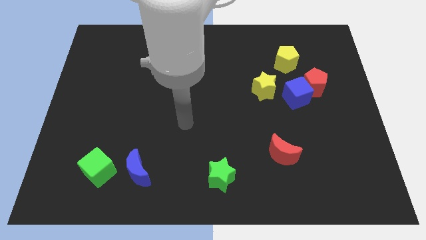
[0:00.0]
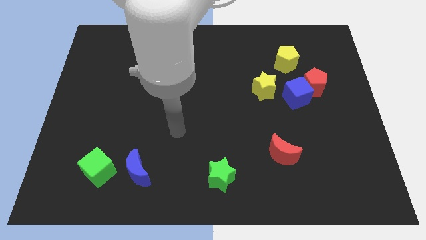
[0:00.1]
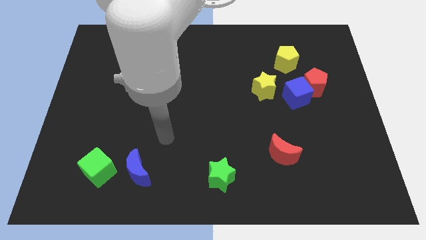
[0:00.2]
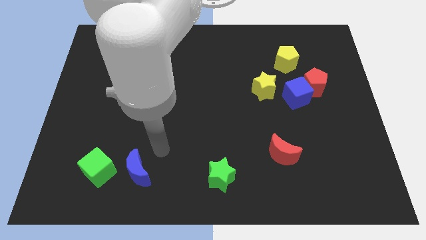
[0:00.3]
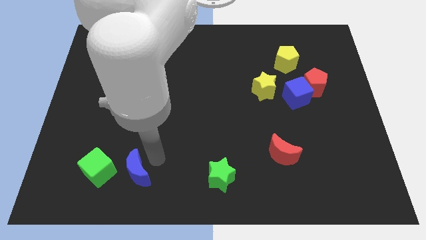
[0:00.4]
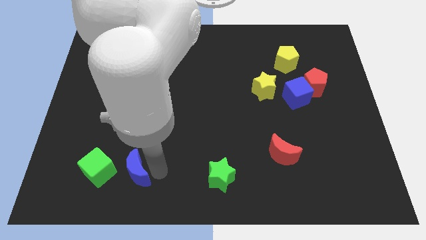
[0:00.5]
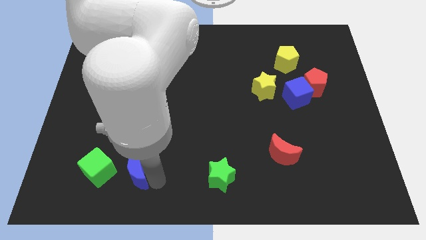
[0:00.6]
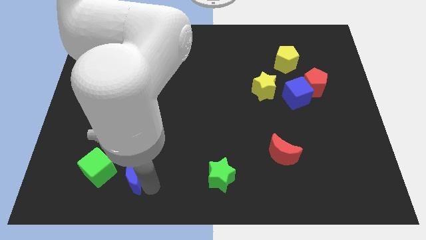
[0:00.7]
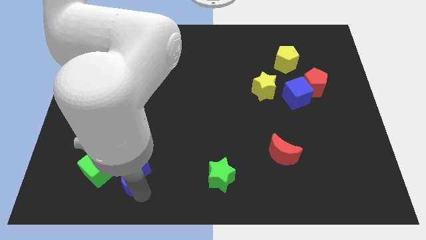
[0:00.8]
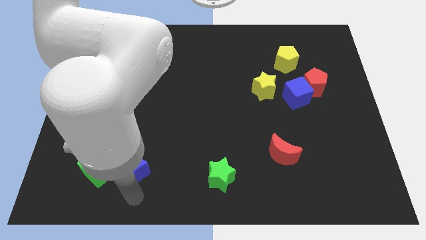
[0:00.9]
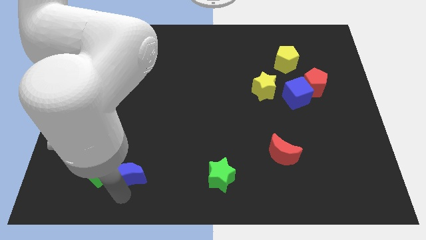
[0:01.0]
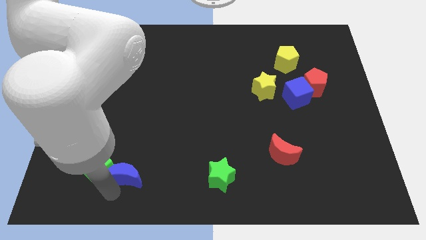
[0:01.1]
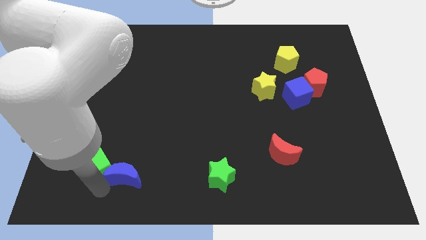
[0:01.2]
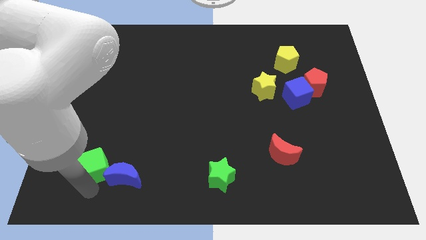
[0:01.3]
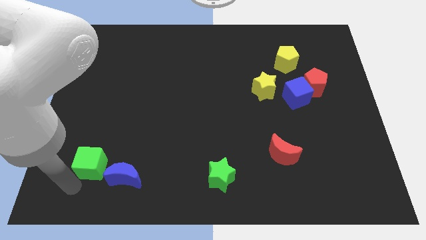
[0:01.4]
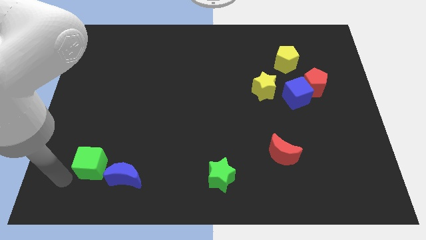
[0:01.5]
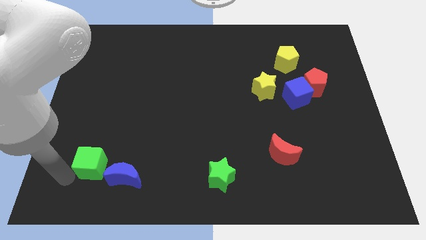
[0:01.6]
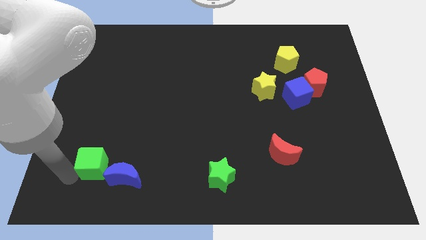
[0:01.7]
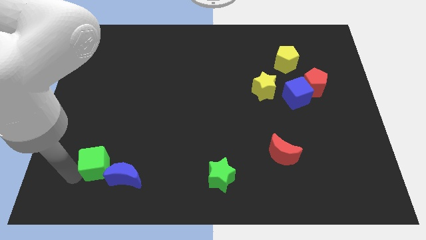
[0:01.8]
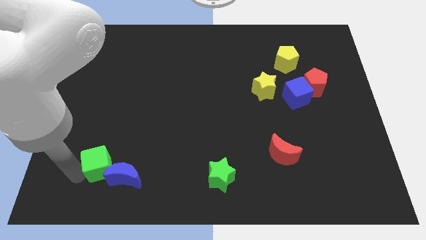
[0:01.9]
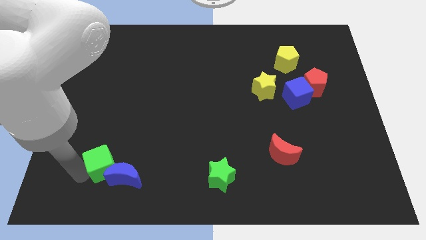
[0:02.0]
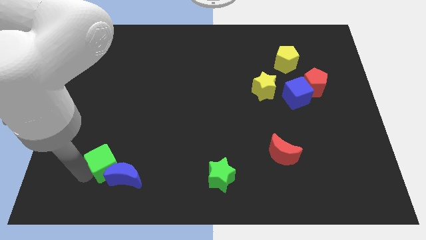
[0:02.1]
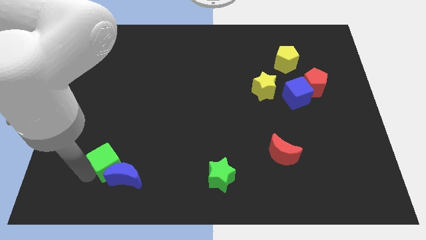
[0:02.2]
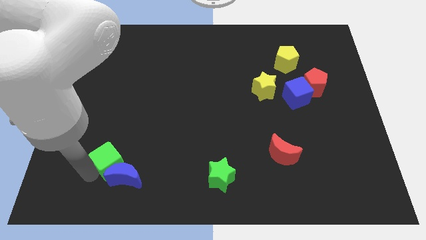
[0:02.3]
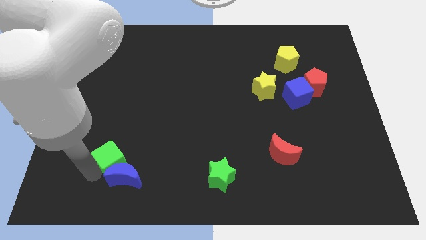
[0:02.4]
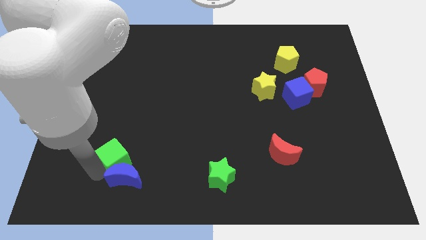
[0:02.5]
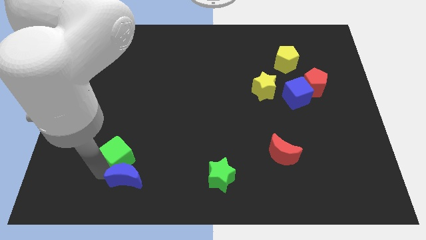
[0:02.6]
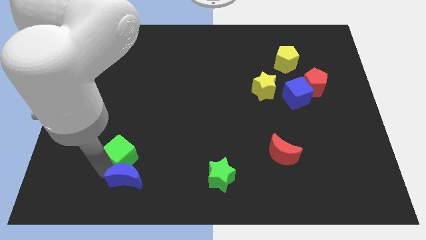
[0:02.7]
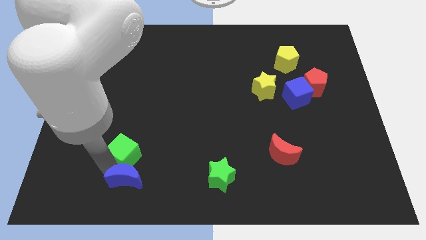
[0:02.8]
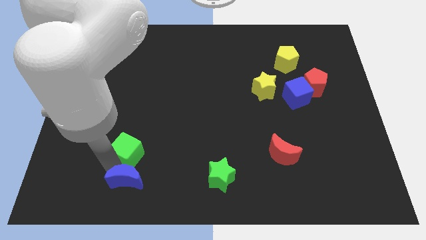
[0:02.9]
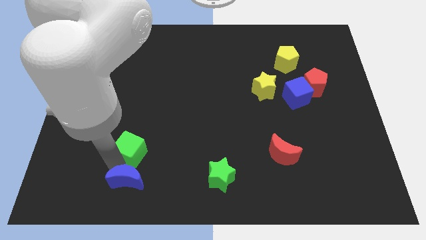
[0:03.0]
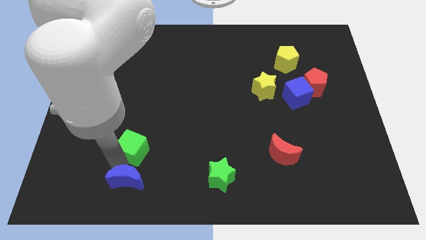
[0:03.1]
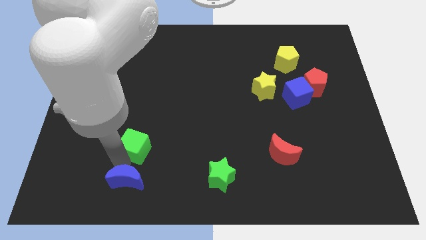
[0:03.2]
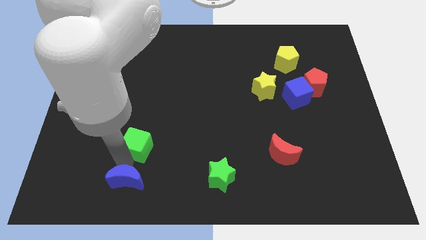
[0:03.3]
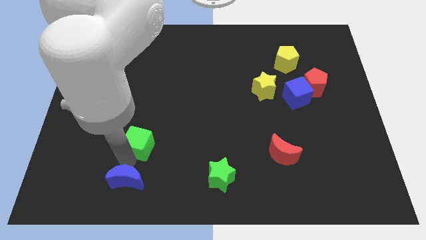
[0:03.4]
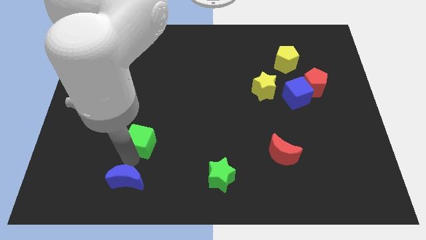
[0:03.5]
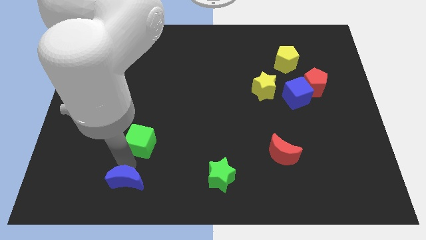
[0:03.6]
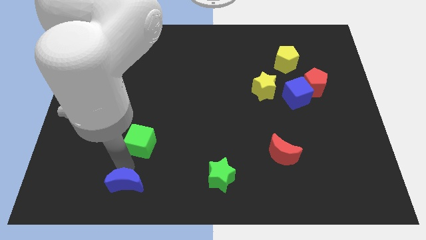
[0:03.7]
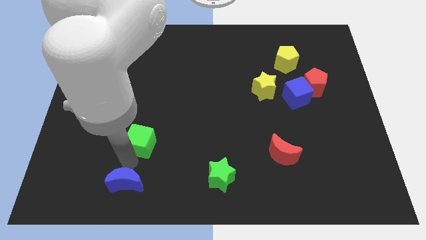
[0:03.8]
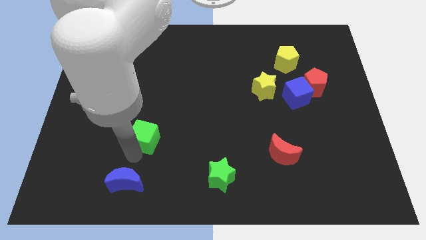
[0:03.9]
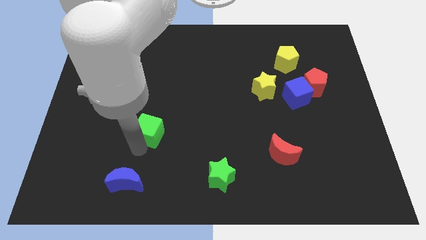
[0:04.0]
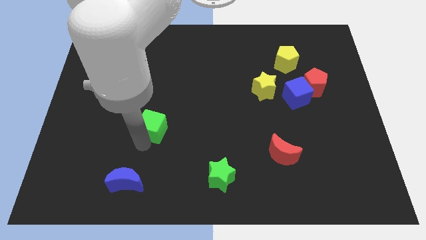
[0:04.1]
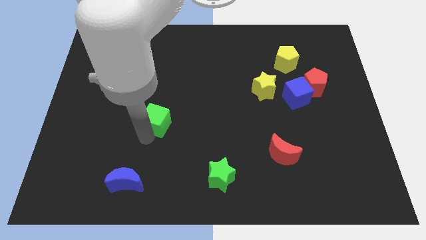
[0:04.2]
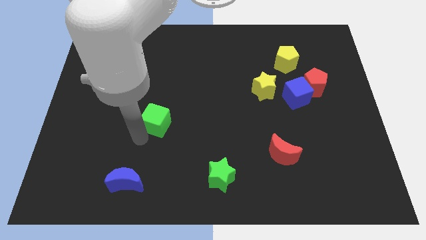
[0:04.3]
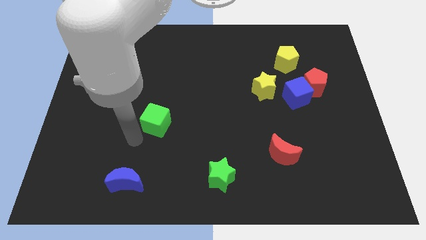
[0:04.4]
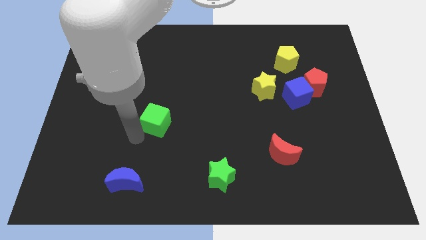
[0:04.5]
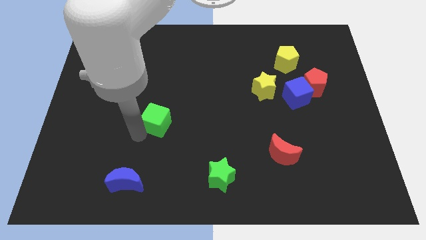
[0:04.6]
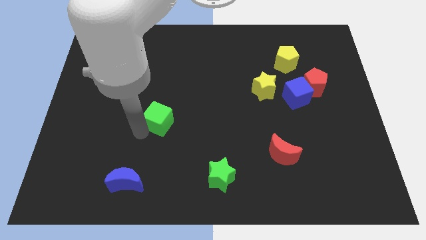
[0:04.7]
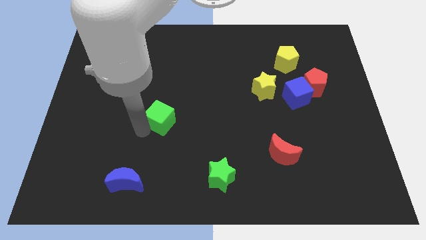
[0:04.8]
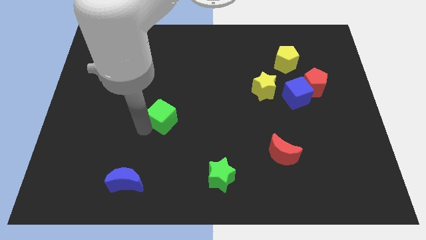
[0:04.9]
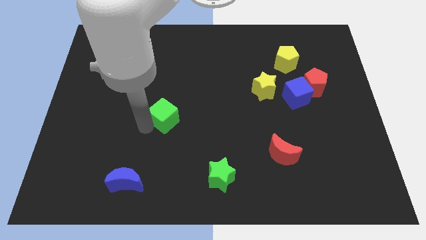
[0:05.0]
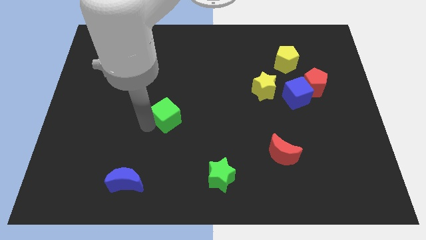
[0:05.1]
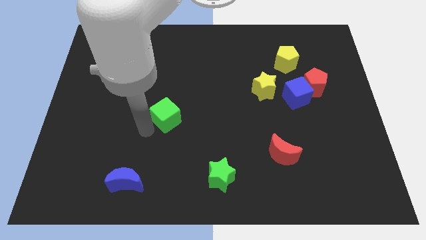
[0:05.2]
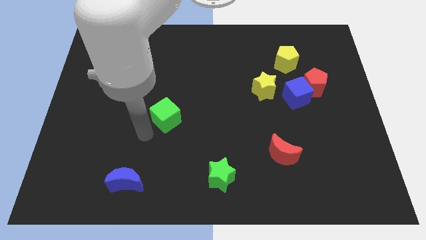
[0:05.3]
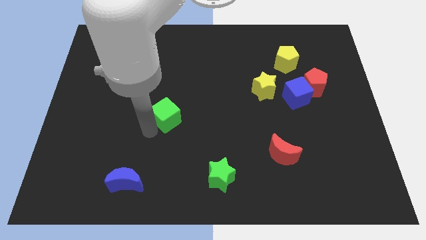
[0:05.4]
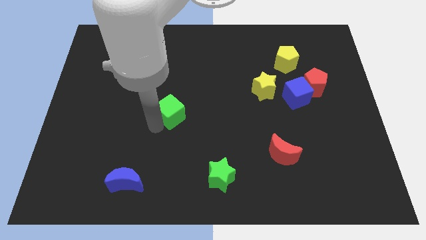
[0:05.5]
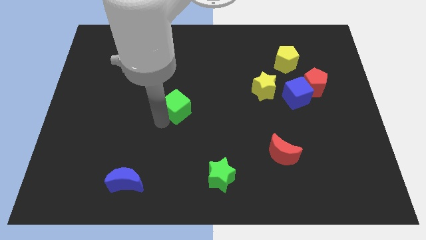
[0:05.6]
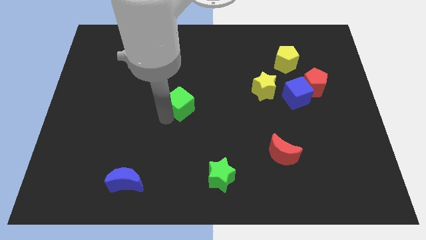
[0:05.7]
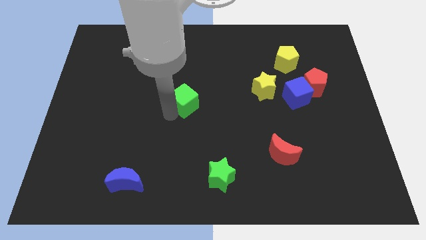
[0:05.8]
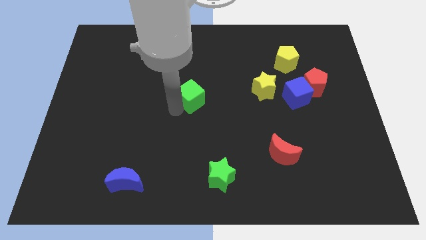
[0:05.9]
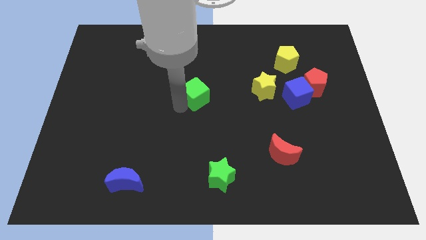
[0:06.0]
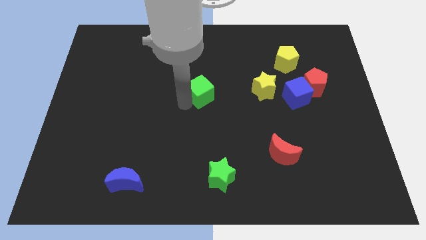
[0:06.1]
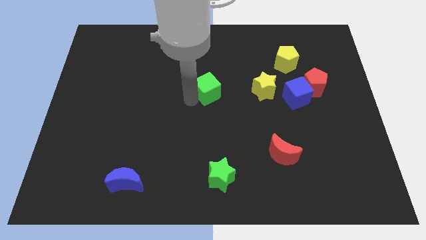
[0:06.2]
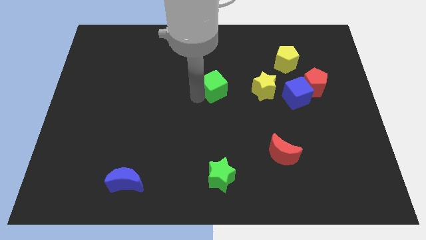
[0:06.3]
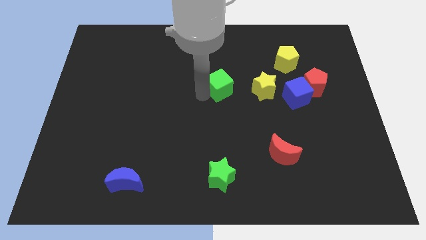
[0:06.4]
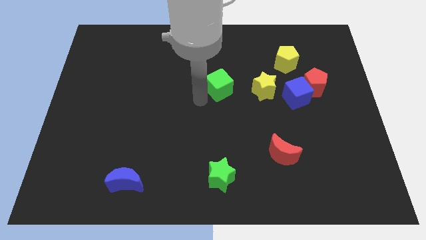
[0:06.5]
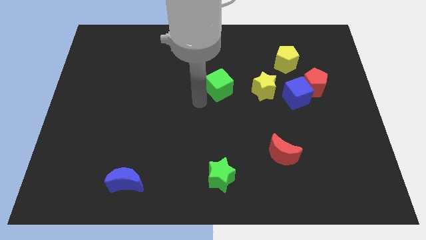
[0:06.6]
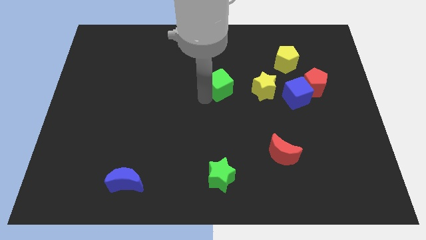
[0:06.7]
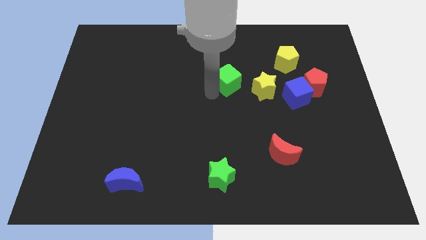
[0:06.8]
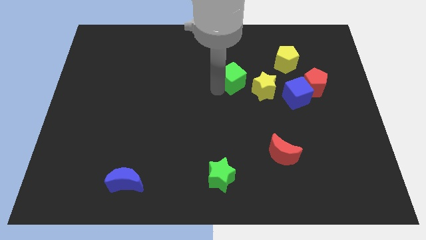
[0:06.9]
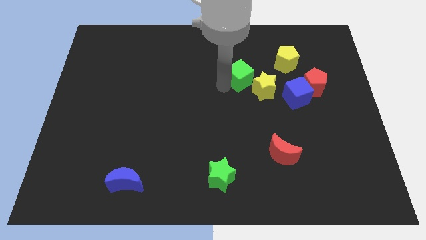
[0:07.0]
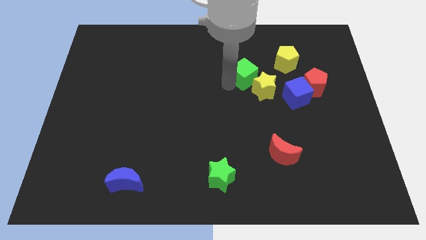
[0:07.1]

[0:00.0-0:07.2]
slide the green cube to the top of the yellow star

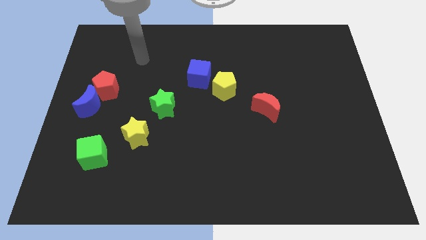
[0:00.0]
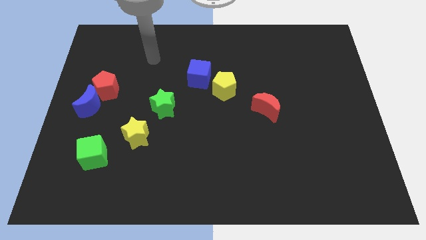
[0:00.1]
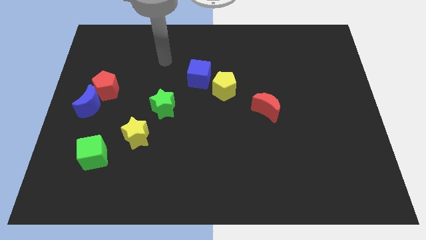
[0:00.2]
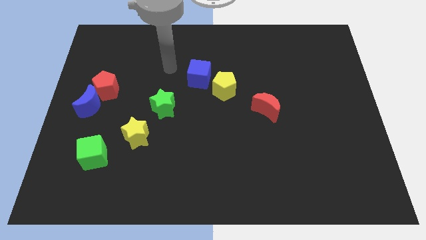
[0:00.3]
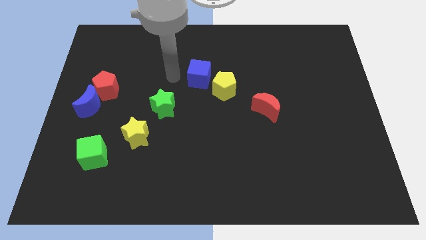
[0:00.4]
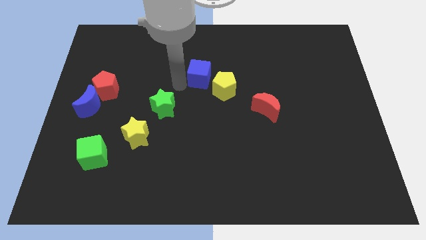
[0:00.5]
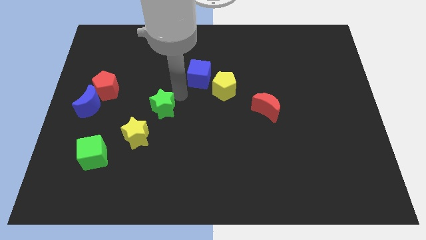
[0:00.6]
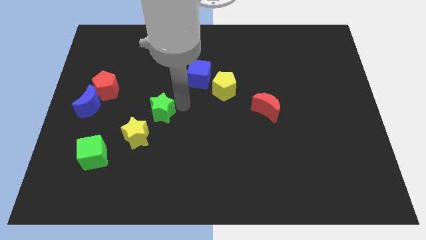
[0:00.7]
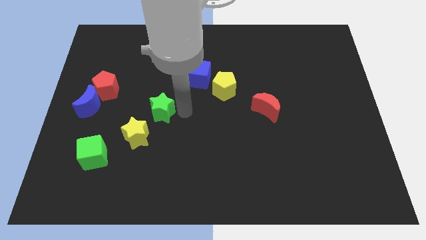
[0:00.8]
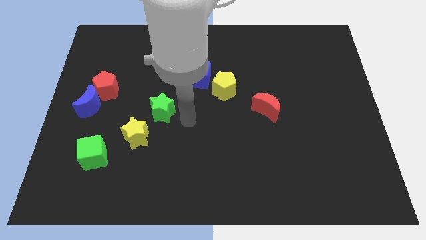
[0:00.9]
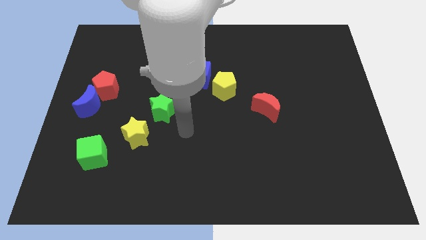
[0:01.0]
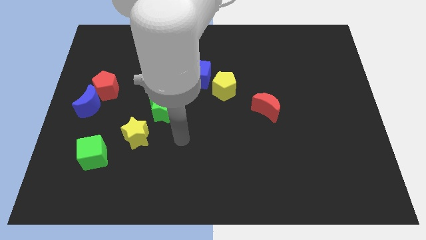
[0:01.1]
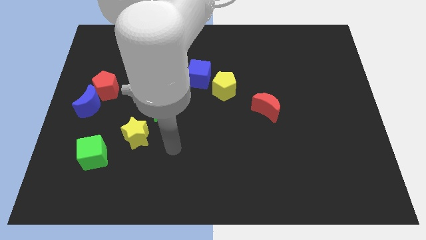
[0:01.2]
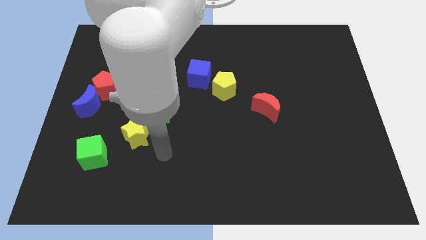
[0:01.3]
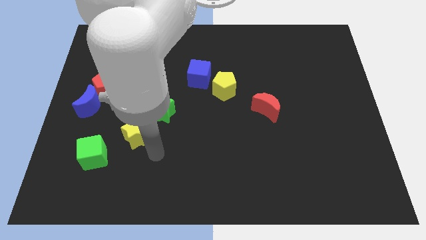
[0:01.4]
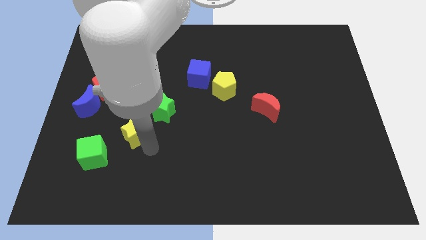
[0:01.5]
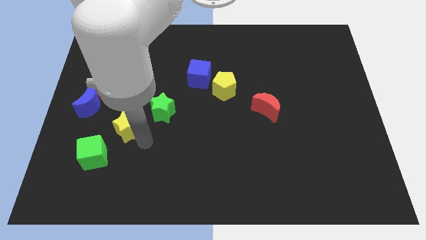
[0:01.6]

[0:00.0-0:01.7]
push the yellow star just left of the green star
